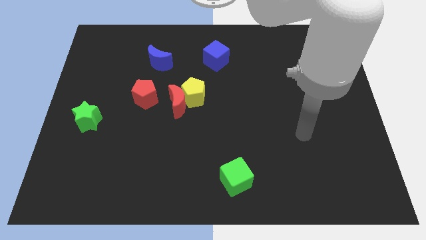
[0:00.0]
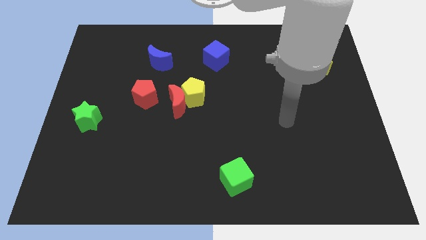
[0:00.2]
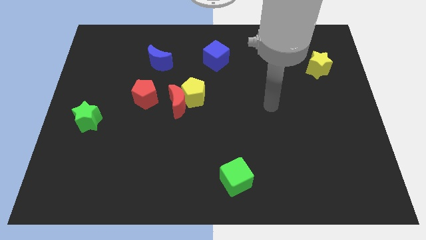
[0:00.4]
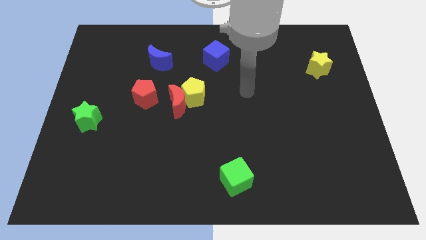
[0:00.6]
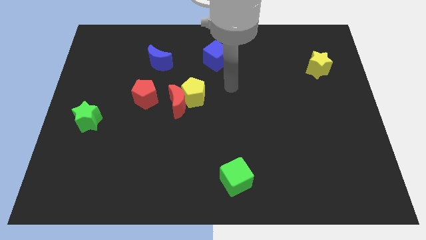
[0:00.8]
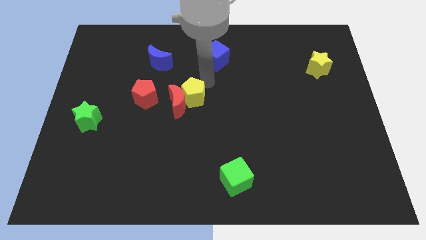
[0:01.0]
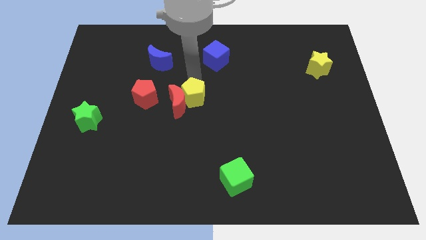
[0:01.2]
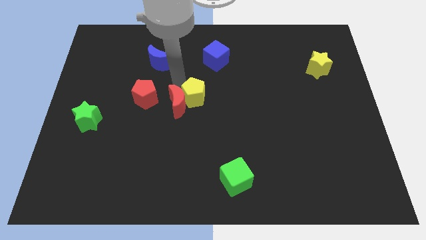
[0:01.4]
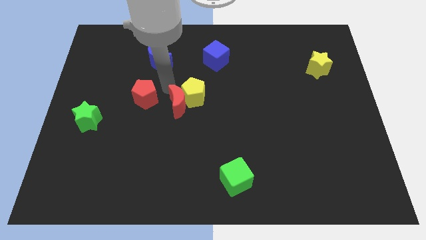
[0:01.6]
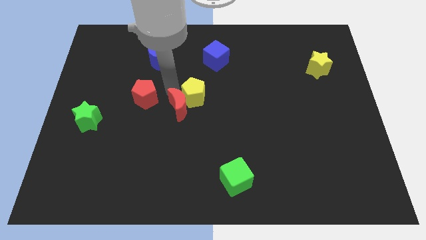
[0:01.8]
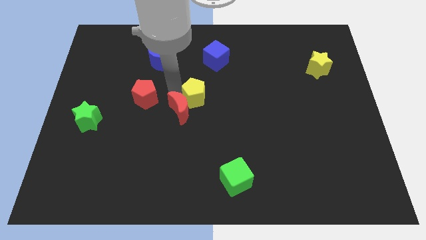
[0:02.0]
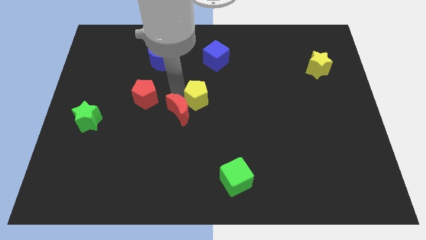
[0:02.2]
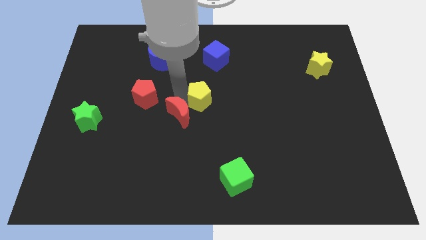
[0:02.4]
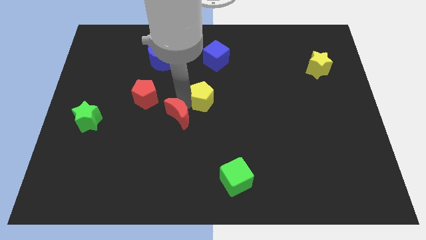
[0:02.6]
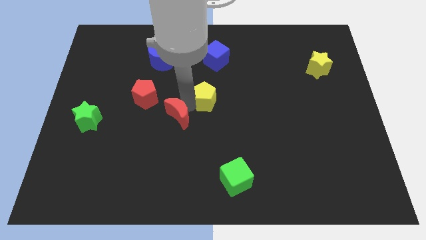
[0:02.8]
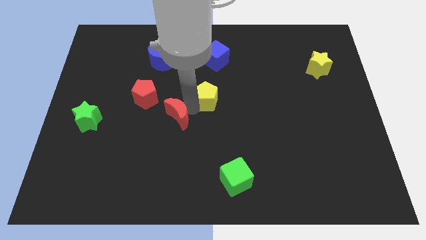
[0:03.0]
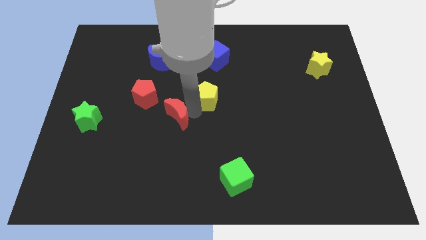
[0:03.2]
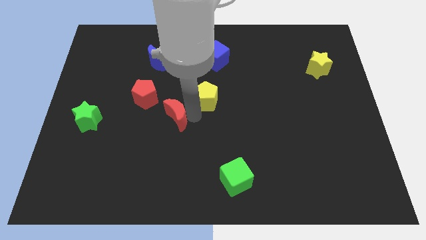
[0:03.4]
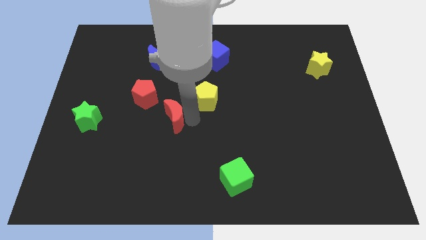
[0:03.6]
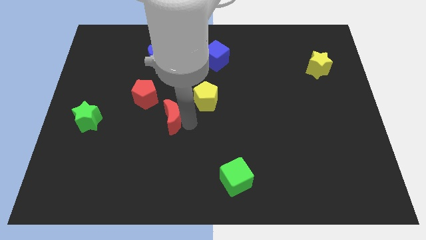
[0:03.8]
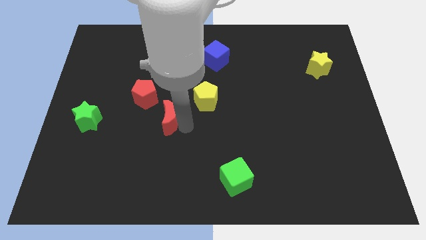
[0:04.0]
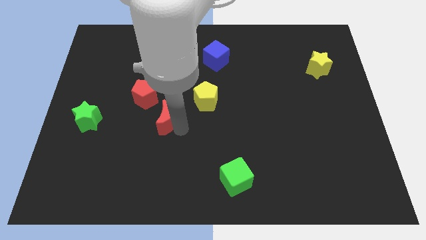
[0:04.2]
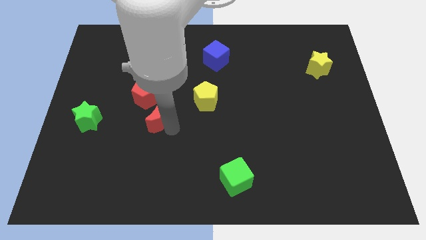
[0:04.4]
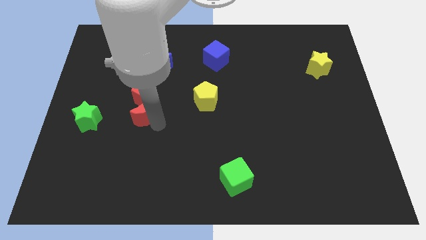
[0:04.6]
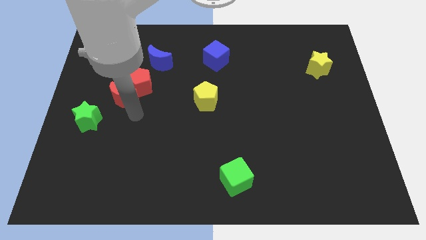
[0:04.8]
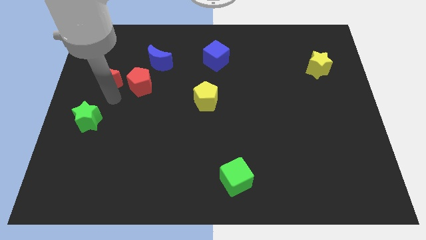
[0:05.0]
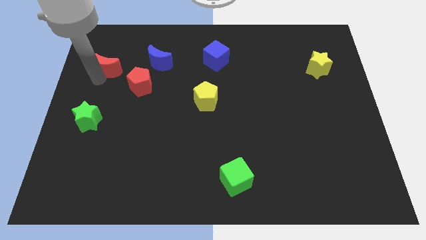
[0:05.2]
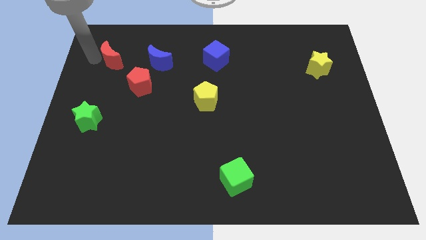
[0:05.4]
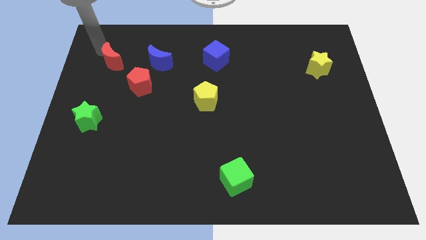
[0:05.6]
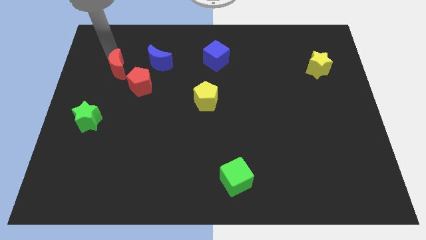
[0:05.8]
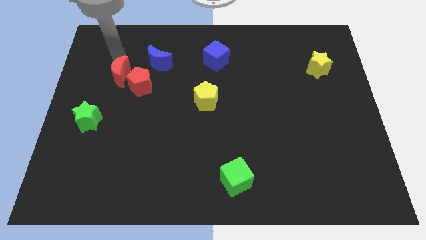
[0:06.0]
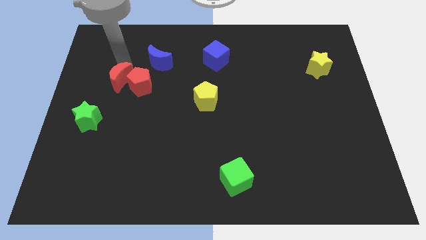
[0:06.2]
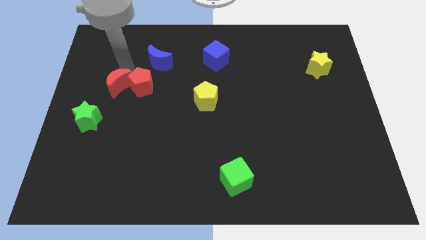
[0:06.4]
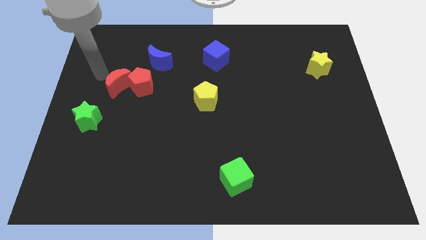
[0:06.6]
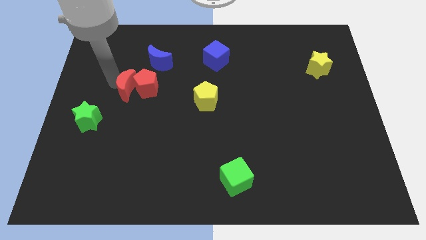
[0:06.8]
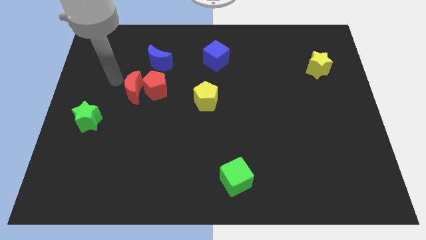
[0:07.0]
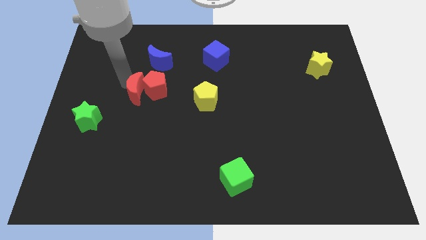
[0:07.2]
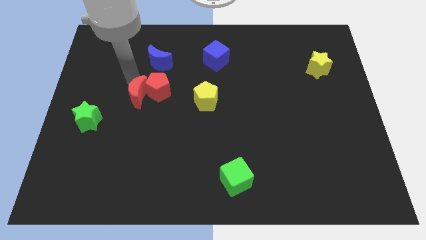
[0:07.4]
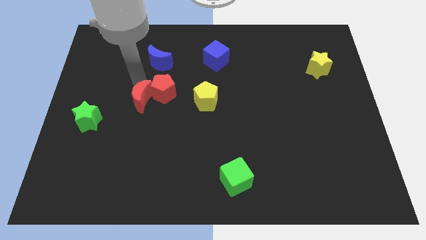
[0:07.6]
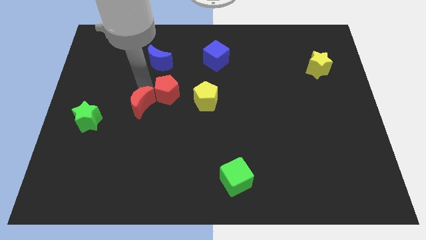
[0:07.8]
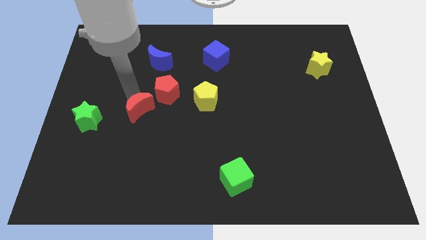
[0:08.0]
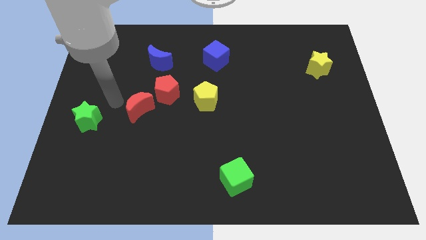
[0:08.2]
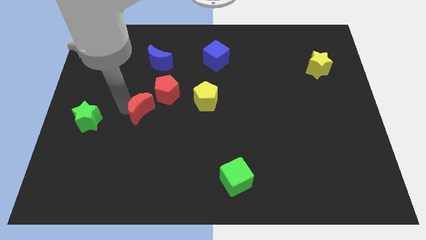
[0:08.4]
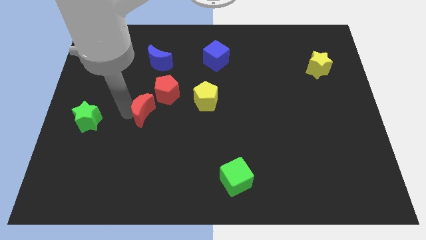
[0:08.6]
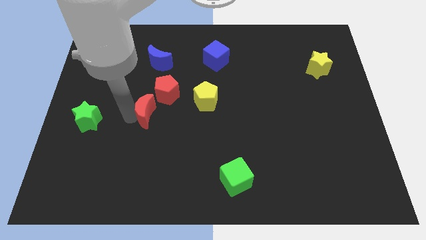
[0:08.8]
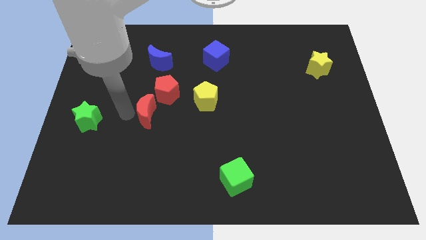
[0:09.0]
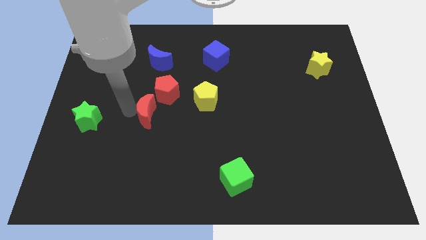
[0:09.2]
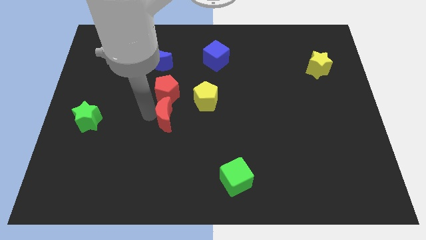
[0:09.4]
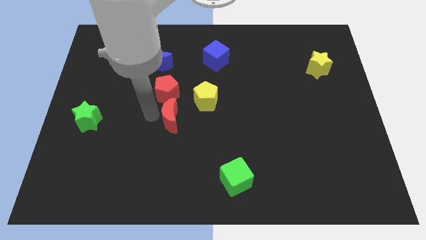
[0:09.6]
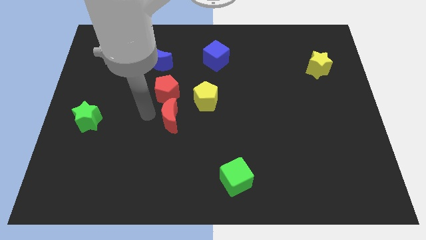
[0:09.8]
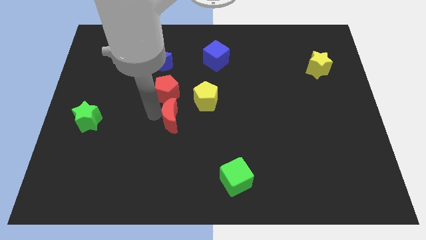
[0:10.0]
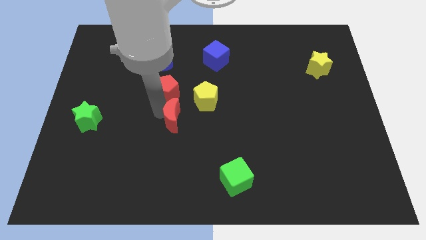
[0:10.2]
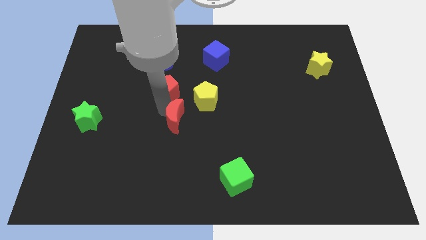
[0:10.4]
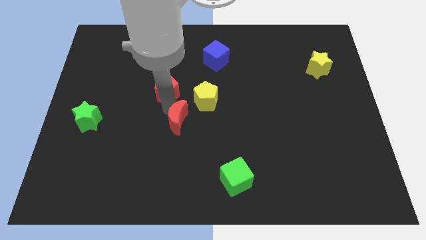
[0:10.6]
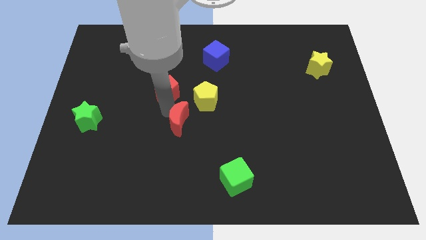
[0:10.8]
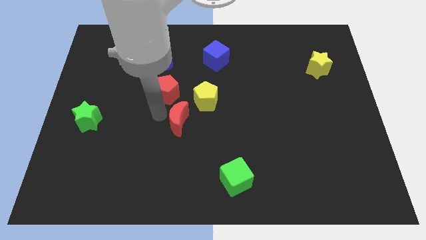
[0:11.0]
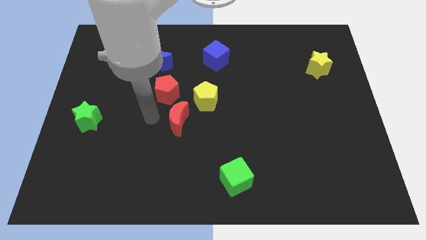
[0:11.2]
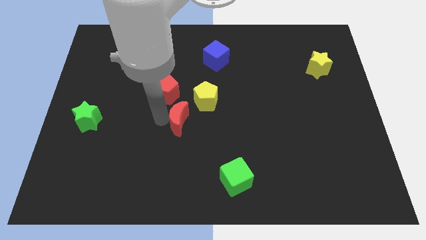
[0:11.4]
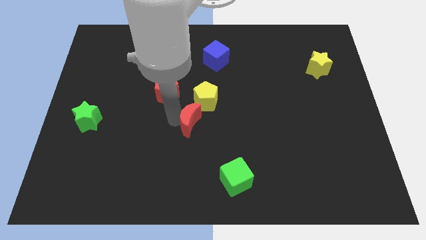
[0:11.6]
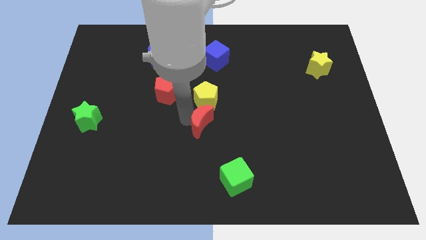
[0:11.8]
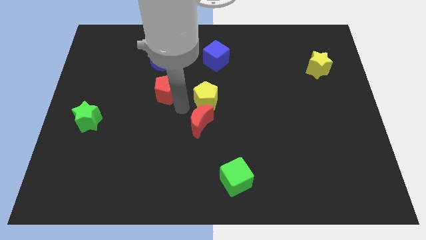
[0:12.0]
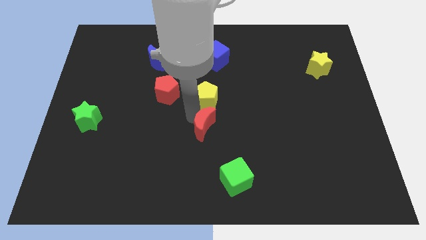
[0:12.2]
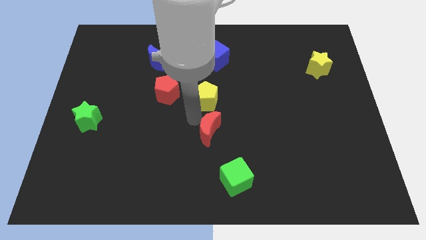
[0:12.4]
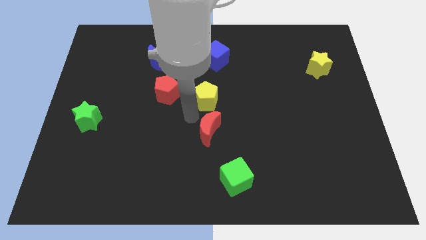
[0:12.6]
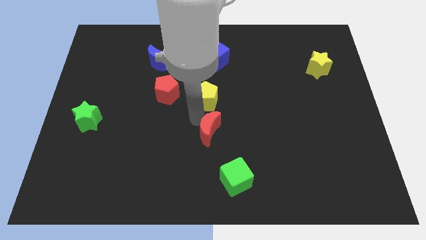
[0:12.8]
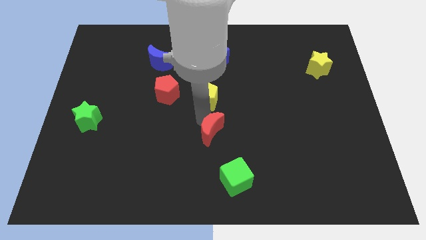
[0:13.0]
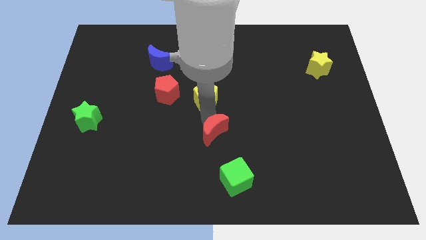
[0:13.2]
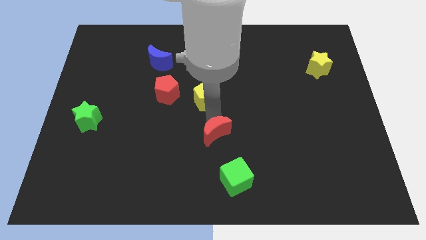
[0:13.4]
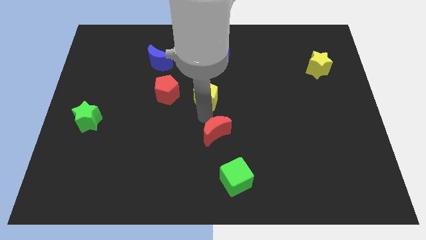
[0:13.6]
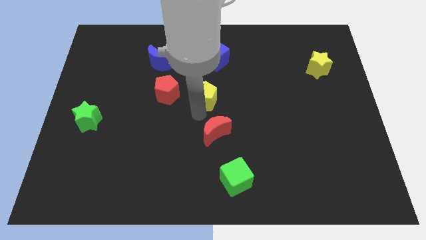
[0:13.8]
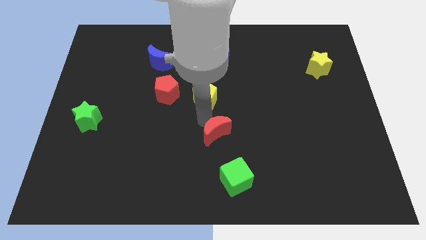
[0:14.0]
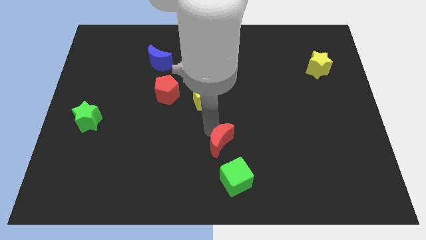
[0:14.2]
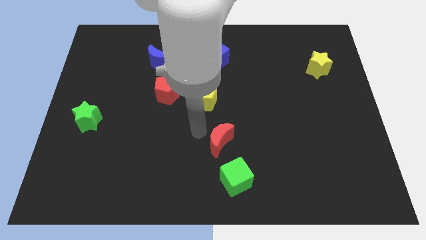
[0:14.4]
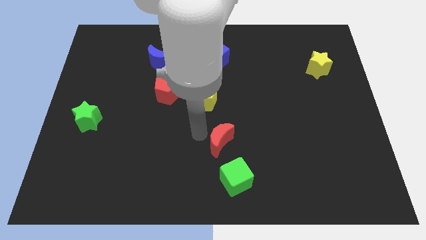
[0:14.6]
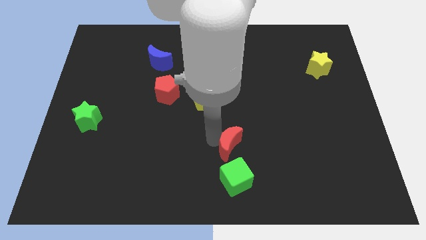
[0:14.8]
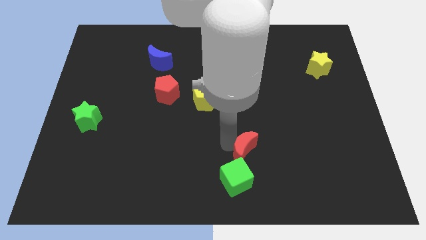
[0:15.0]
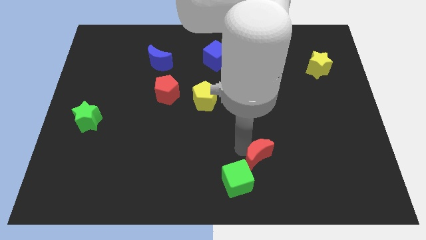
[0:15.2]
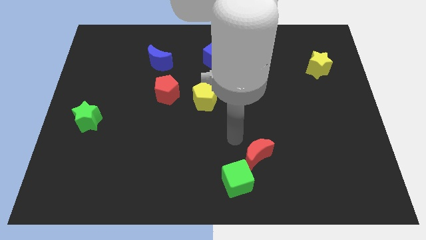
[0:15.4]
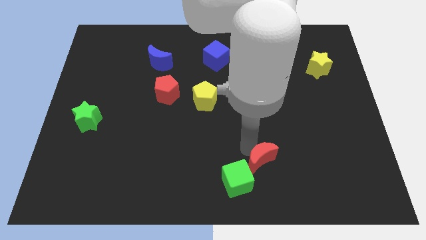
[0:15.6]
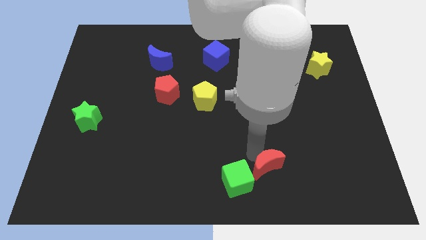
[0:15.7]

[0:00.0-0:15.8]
put the red moon right of the green cube
